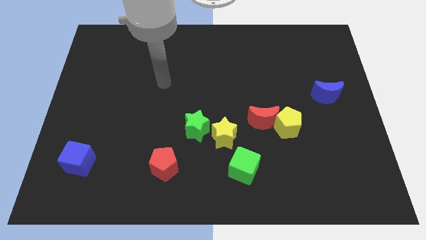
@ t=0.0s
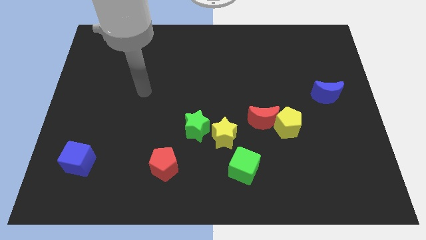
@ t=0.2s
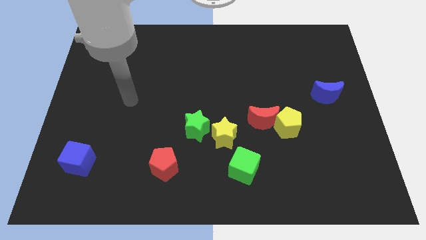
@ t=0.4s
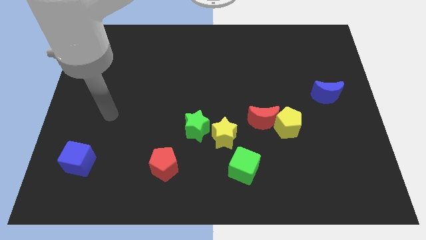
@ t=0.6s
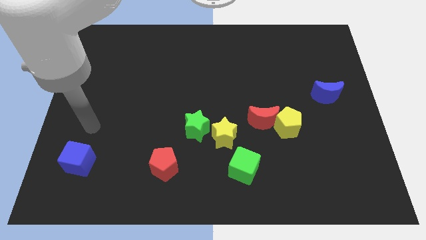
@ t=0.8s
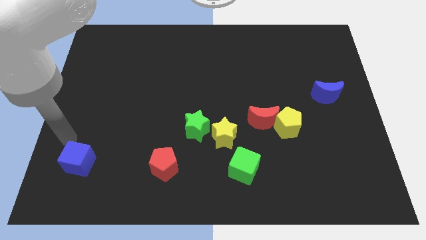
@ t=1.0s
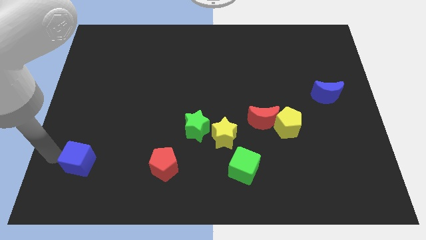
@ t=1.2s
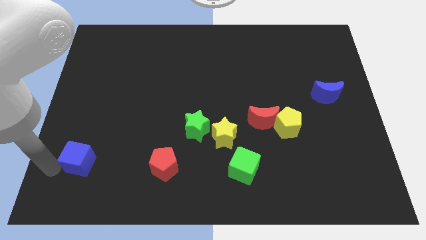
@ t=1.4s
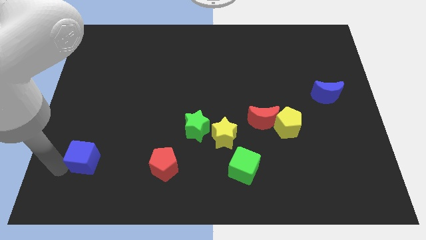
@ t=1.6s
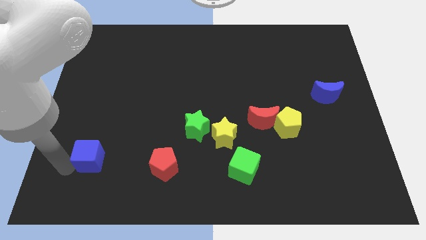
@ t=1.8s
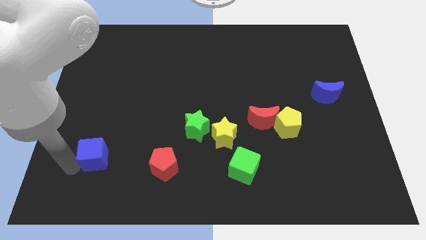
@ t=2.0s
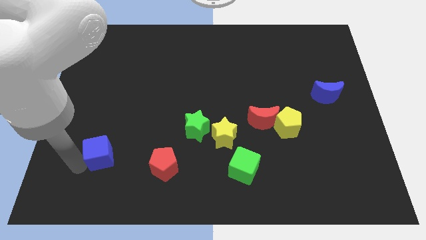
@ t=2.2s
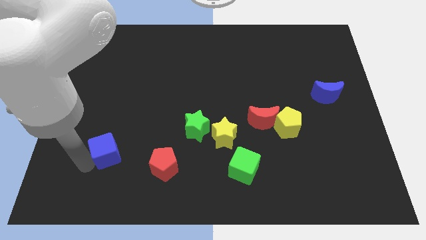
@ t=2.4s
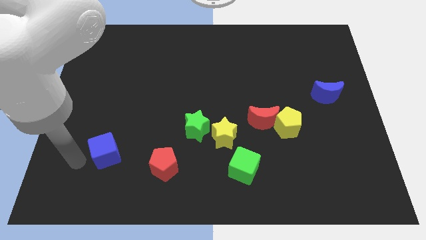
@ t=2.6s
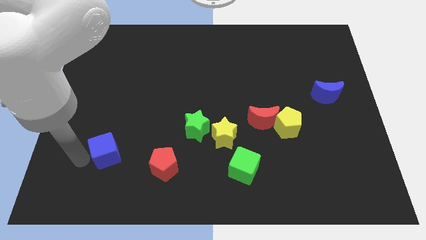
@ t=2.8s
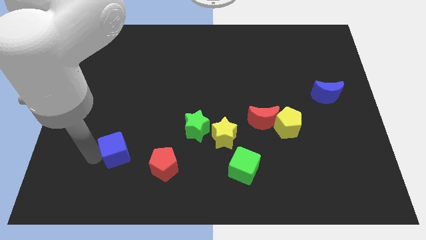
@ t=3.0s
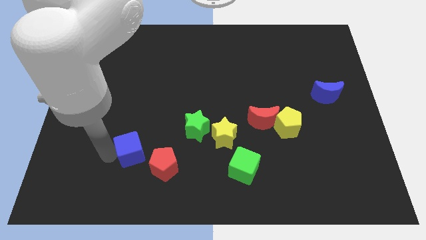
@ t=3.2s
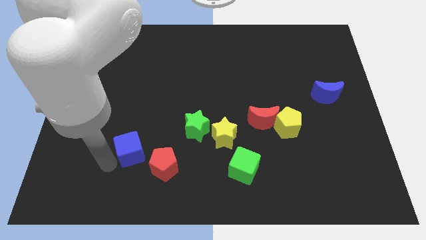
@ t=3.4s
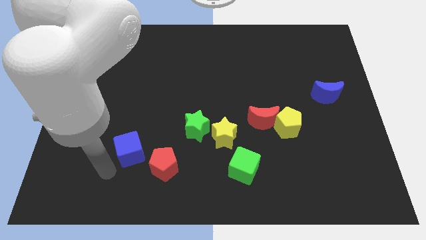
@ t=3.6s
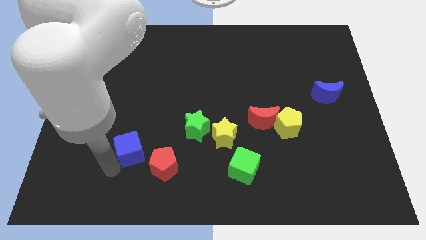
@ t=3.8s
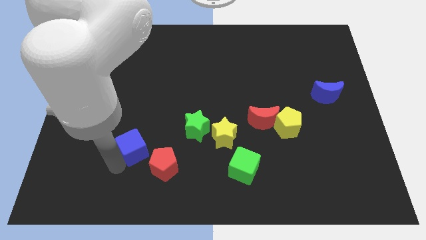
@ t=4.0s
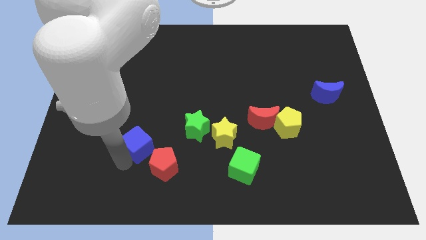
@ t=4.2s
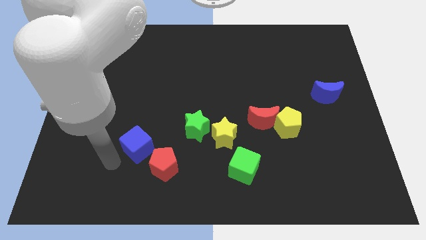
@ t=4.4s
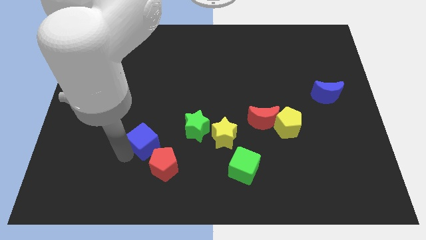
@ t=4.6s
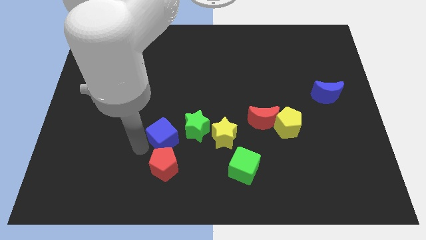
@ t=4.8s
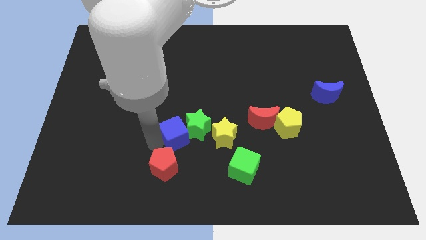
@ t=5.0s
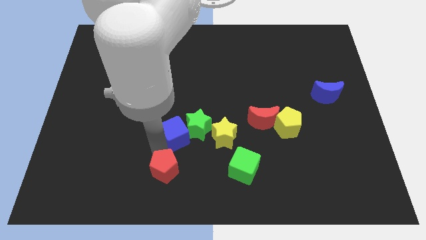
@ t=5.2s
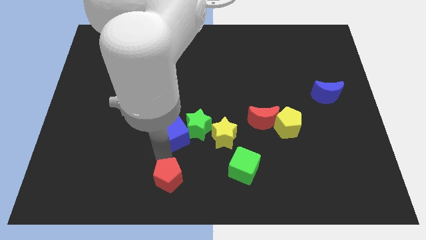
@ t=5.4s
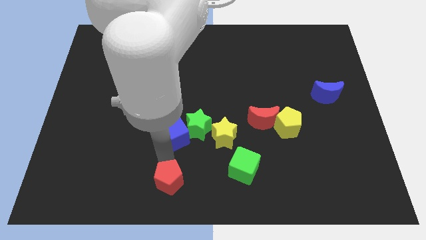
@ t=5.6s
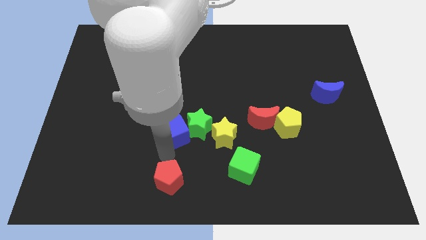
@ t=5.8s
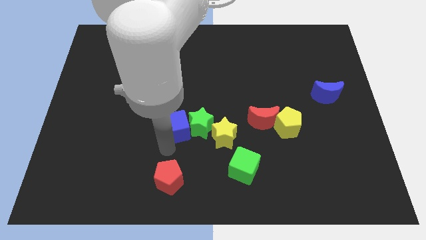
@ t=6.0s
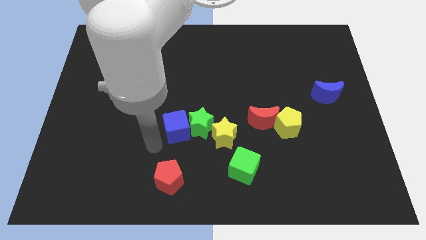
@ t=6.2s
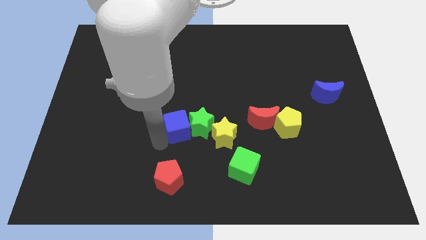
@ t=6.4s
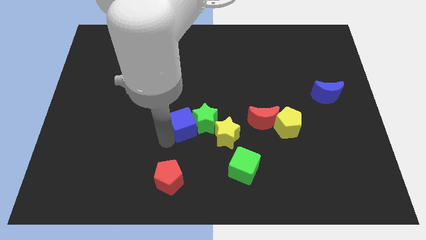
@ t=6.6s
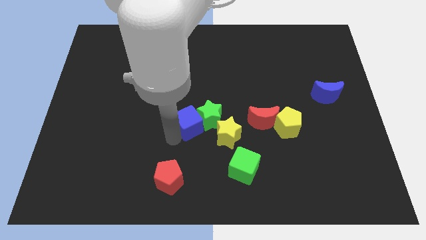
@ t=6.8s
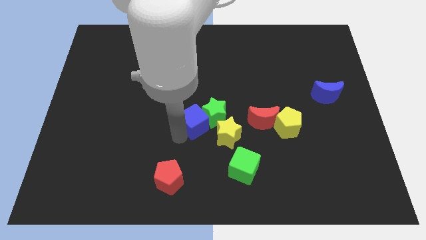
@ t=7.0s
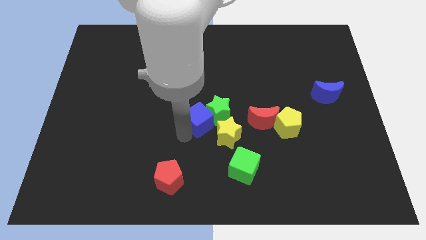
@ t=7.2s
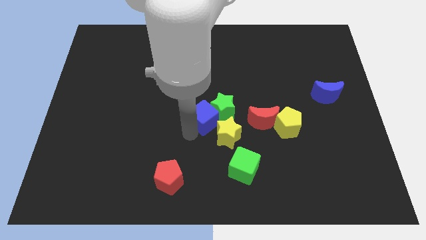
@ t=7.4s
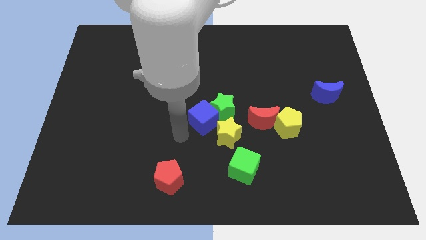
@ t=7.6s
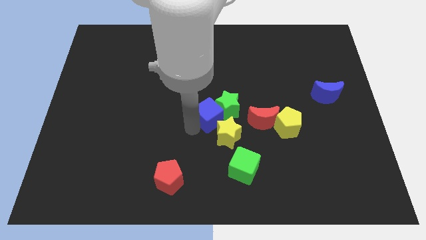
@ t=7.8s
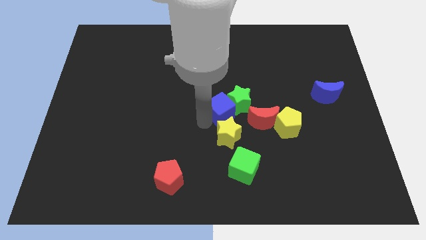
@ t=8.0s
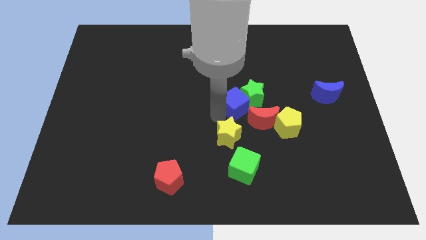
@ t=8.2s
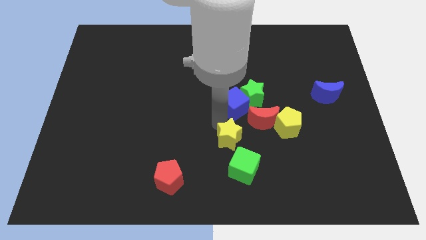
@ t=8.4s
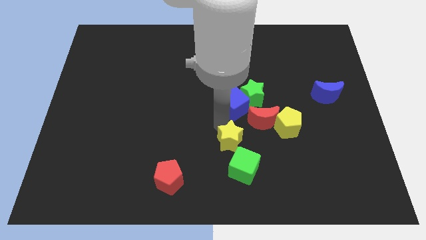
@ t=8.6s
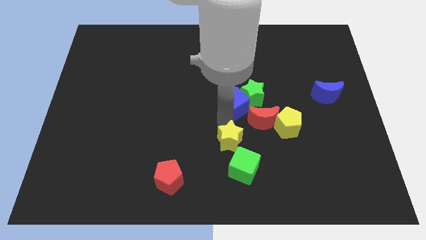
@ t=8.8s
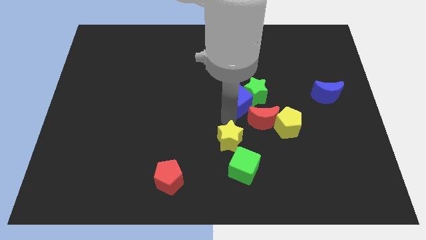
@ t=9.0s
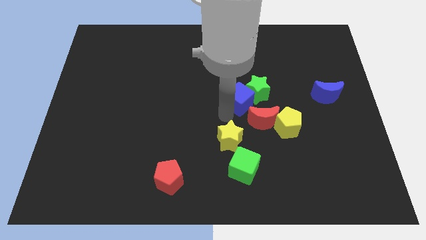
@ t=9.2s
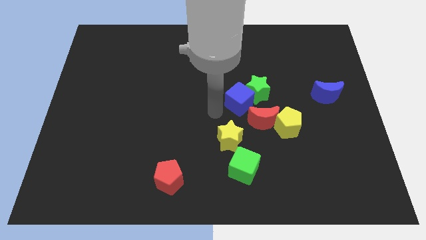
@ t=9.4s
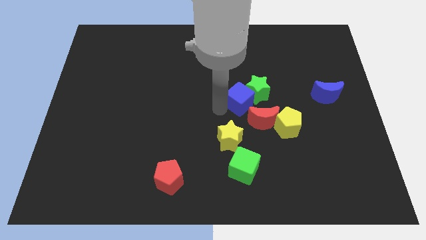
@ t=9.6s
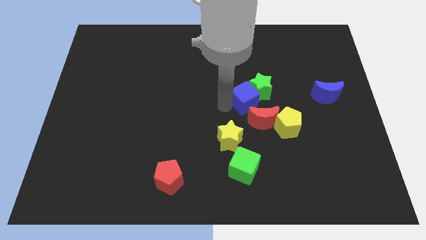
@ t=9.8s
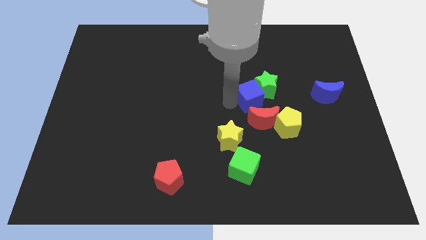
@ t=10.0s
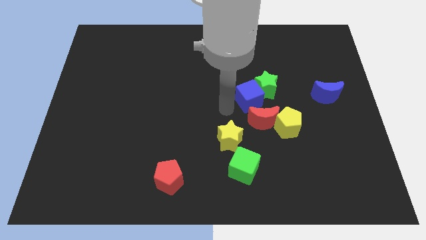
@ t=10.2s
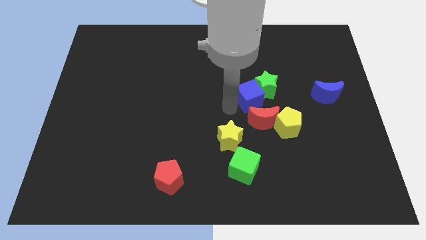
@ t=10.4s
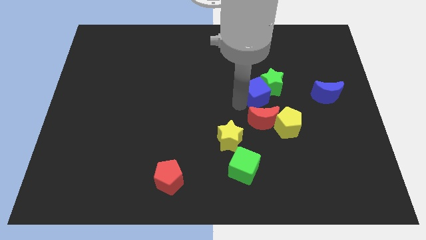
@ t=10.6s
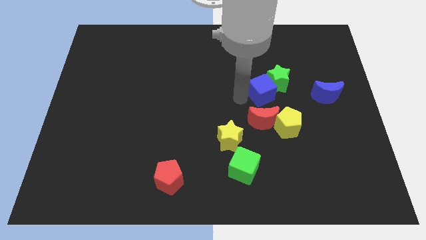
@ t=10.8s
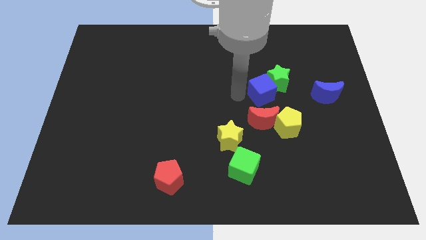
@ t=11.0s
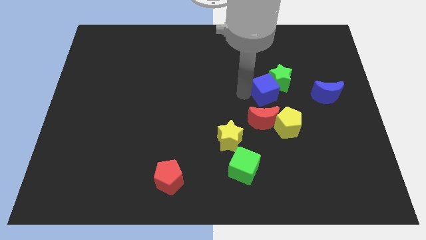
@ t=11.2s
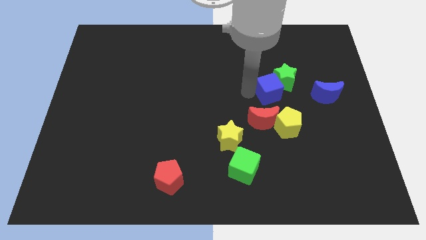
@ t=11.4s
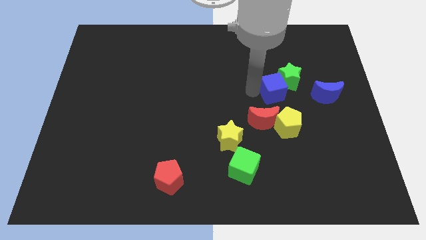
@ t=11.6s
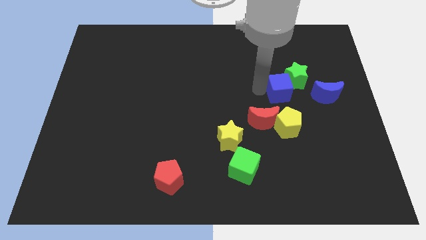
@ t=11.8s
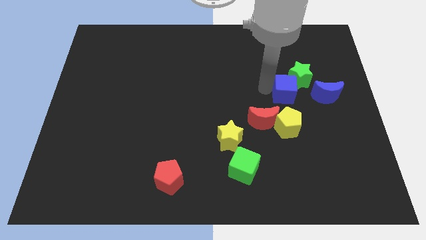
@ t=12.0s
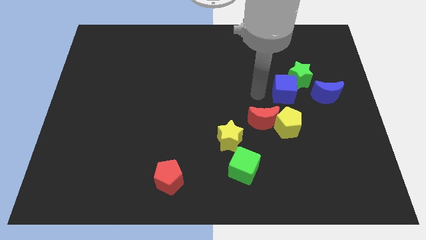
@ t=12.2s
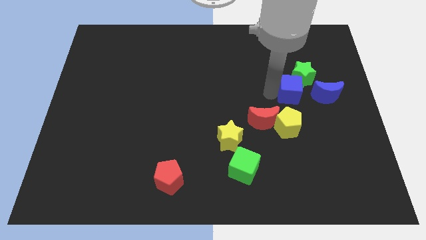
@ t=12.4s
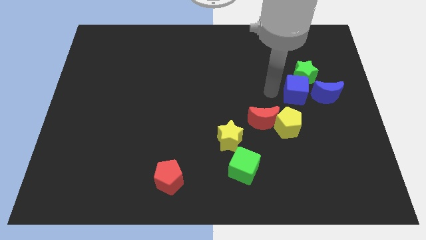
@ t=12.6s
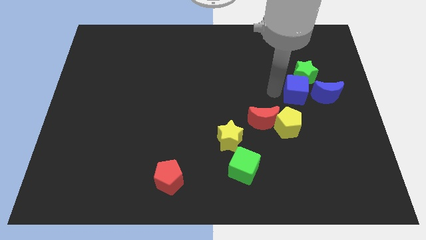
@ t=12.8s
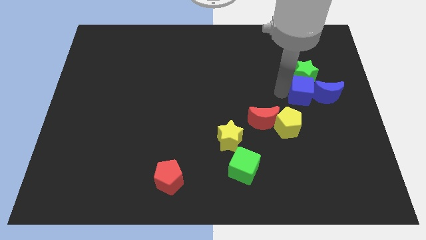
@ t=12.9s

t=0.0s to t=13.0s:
push the blue cube next to the blue moon
